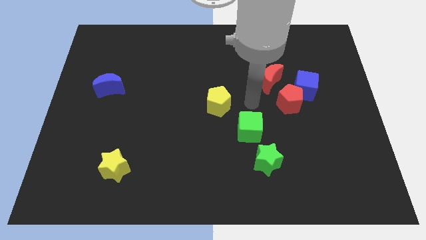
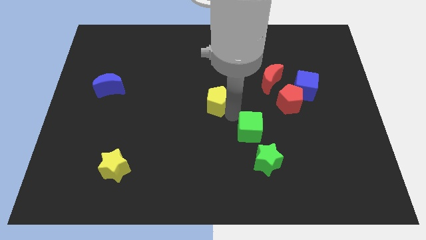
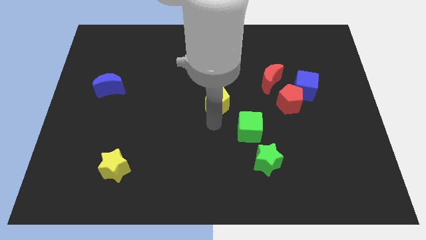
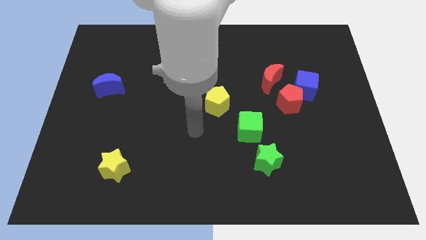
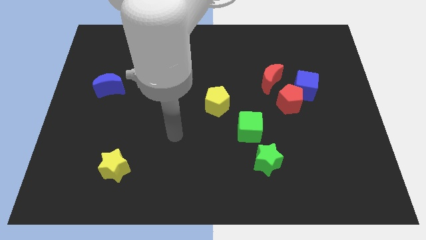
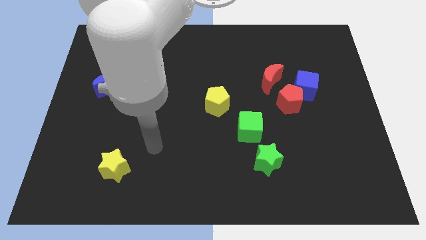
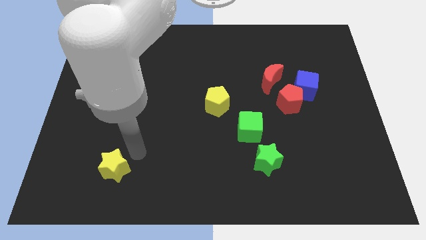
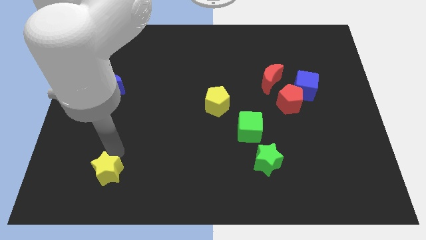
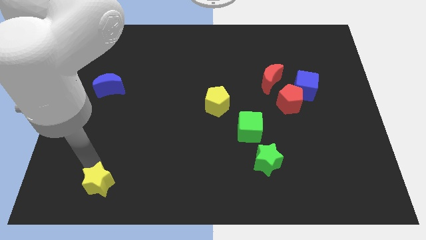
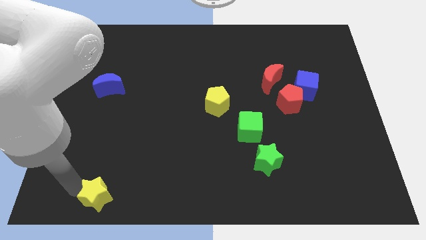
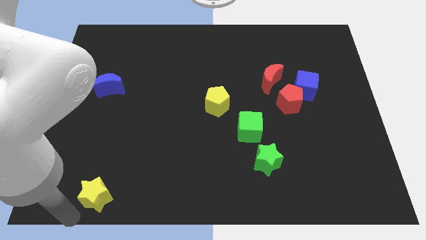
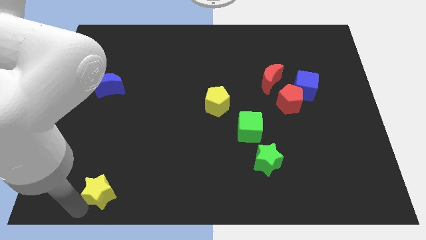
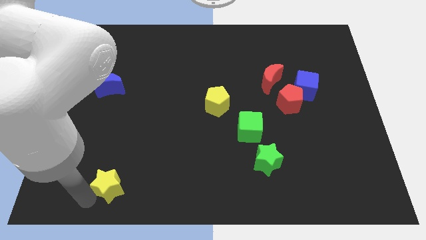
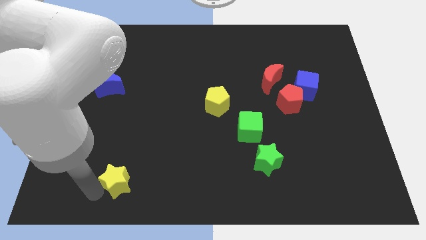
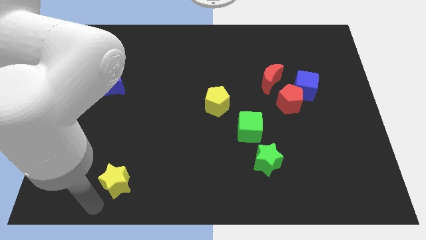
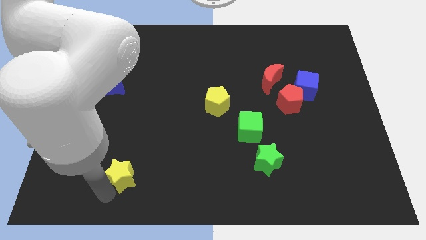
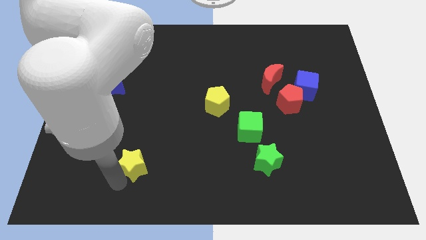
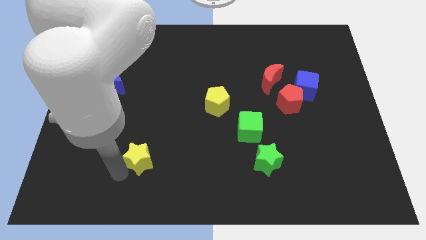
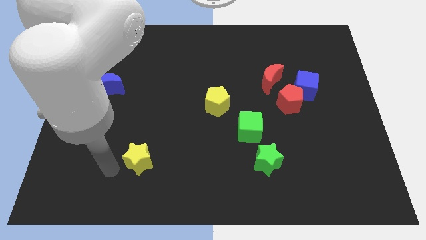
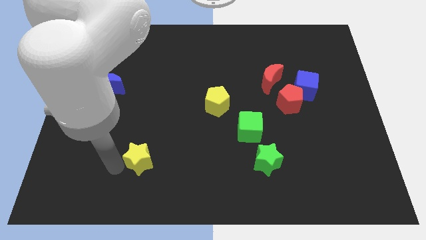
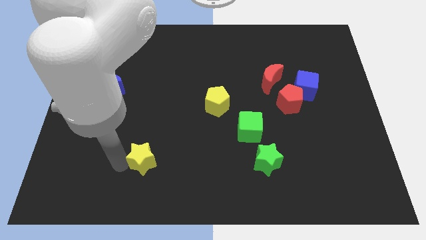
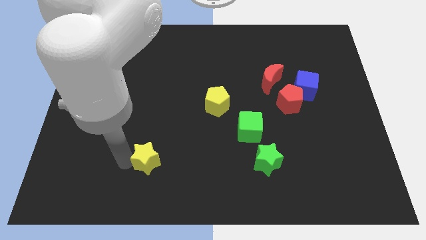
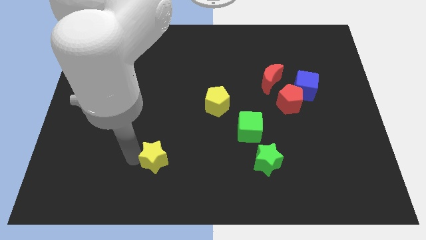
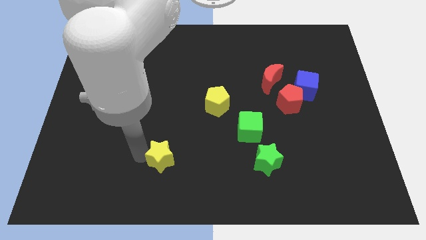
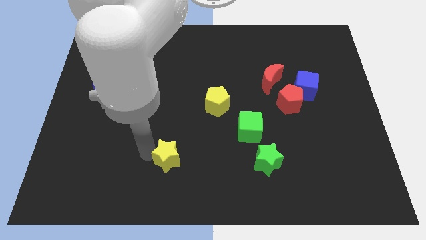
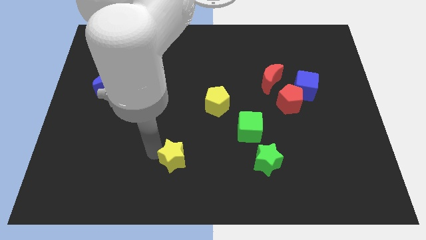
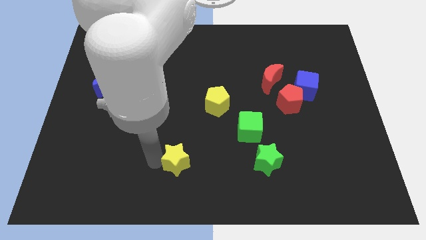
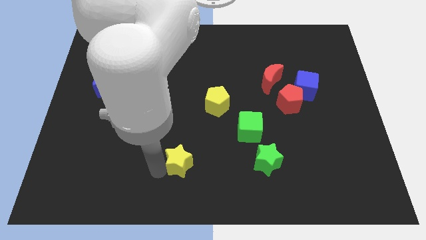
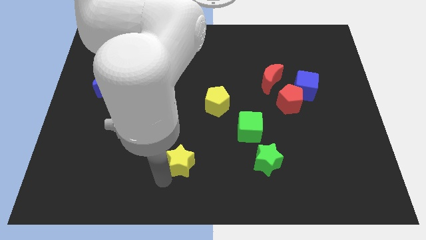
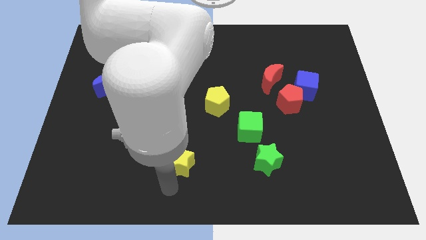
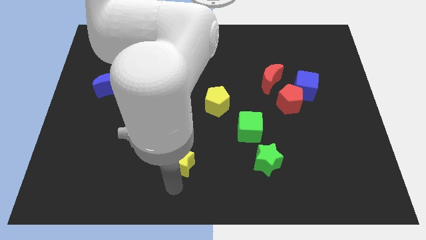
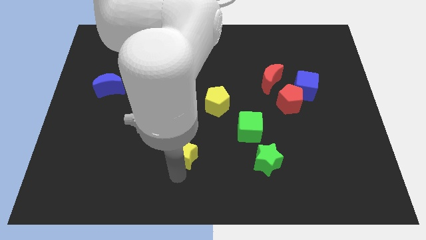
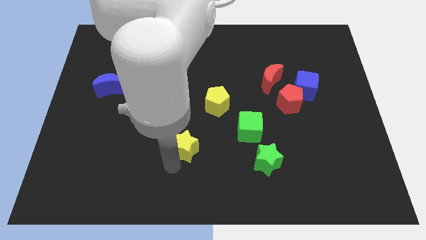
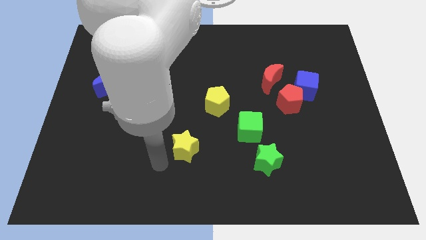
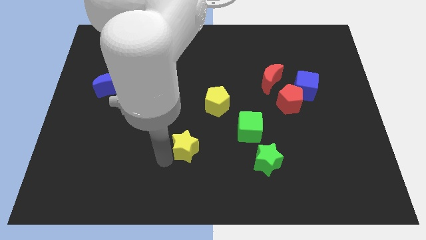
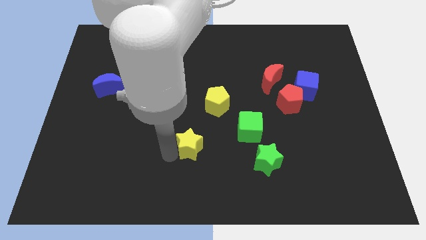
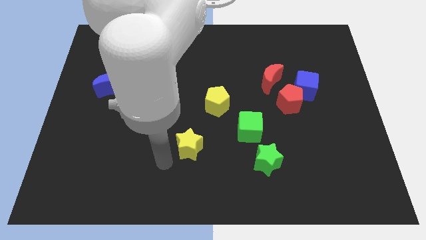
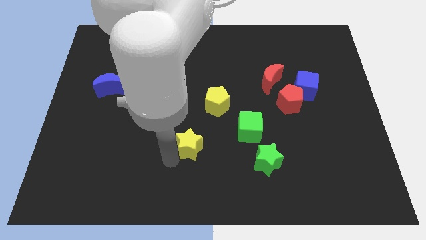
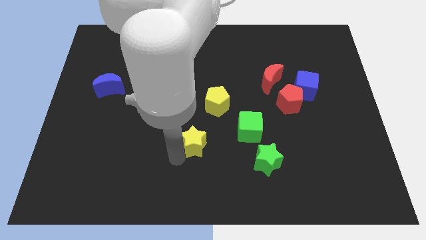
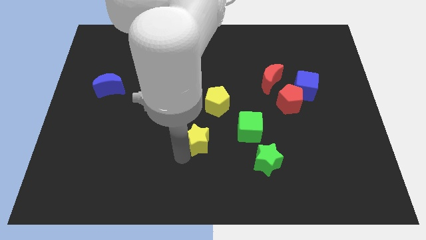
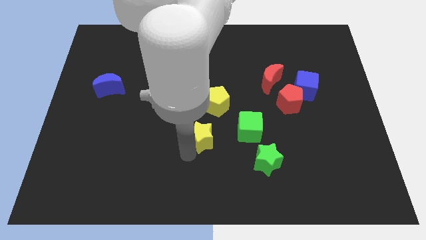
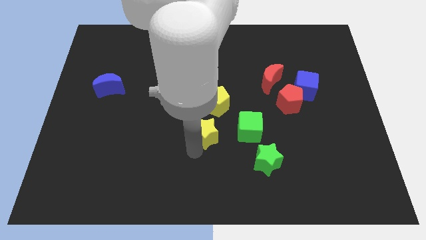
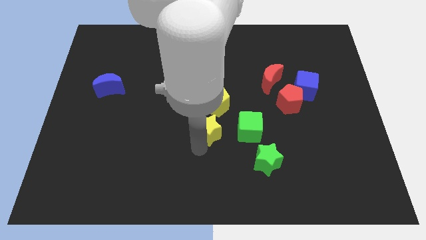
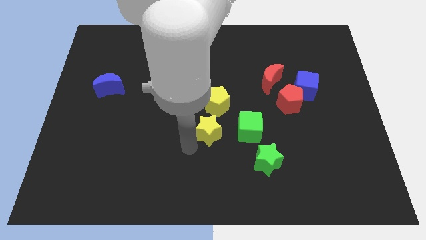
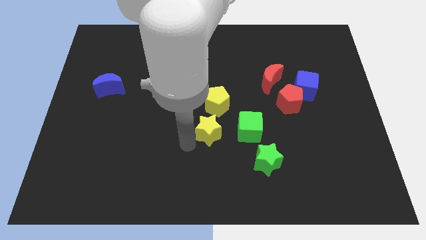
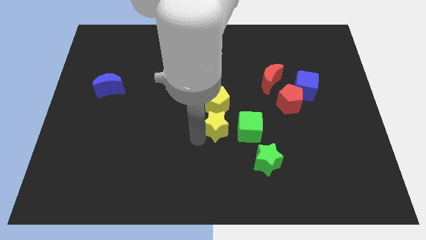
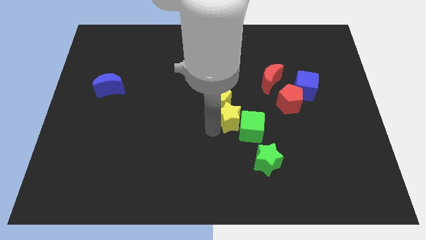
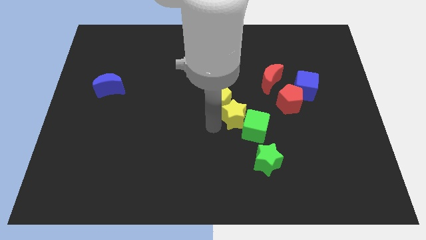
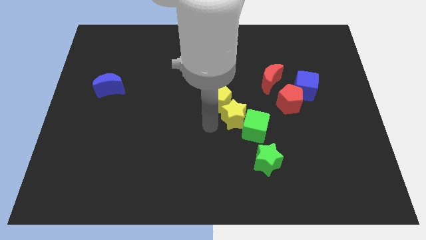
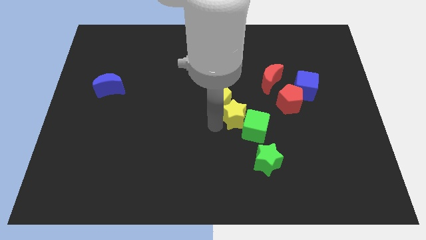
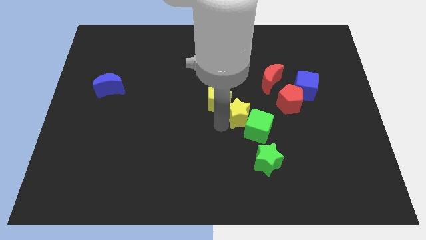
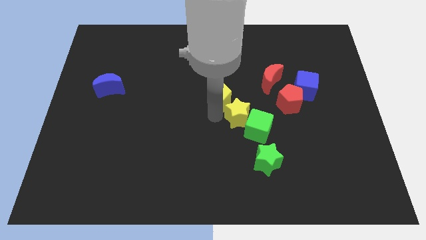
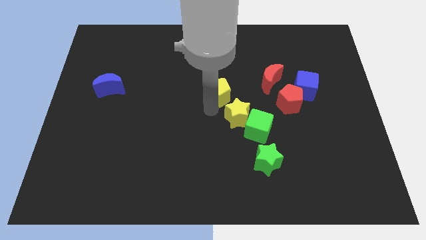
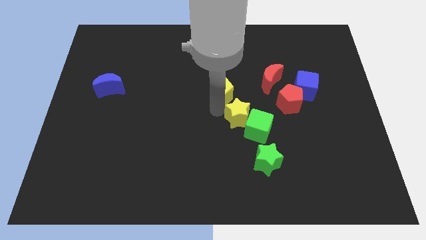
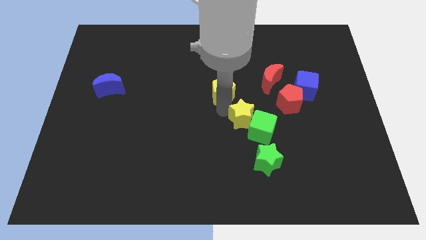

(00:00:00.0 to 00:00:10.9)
move the yellow star above the green star

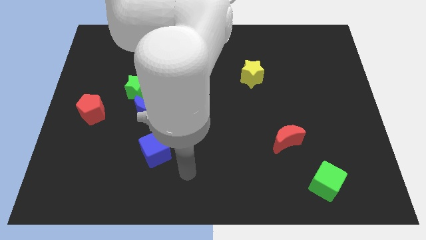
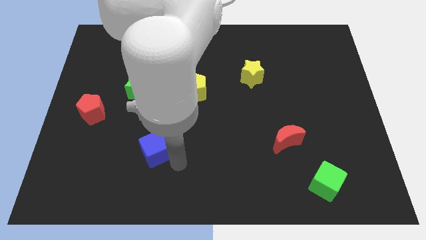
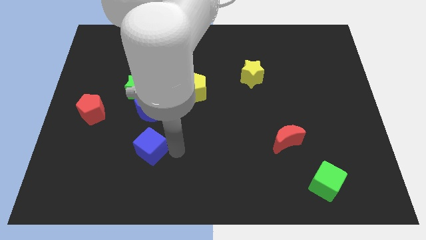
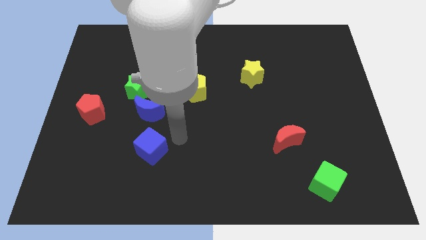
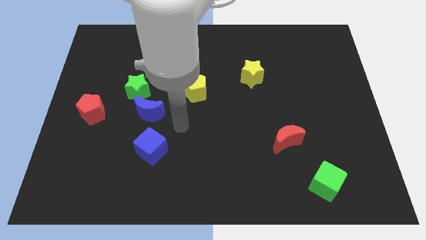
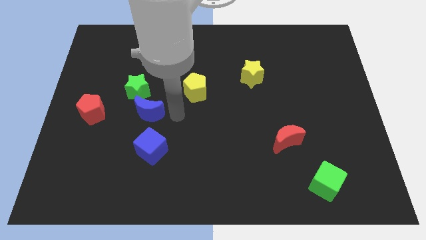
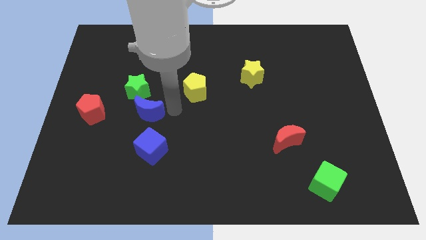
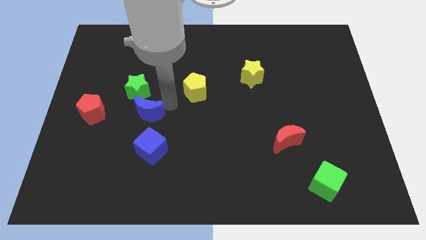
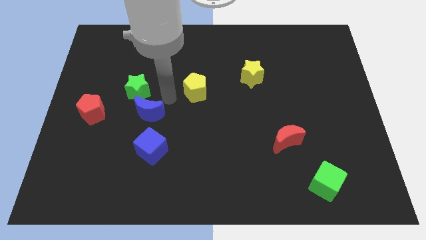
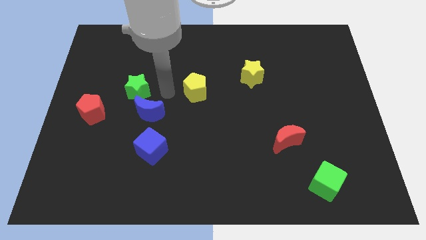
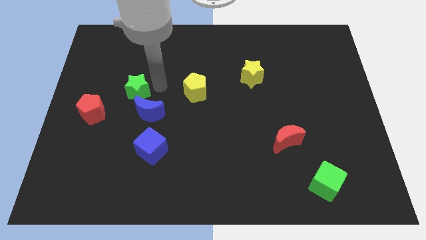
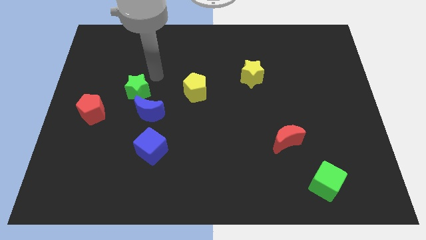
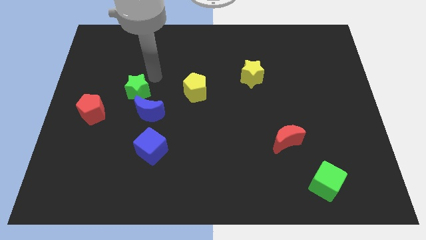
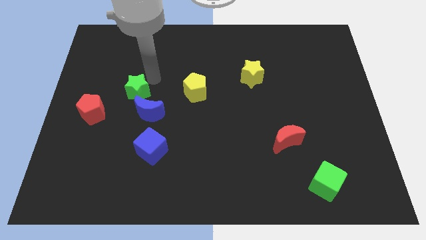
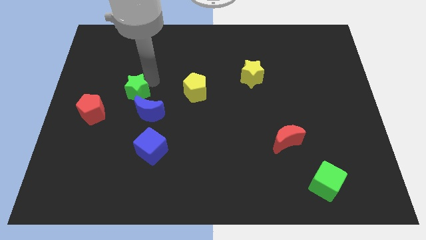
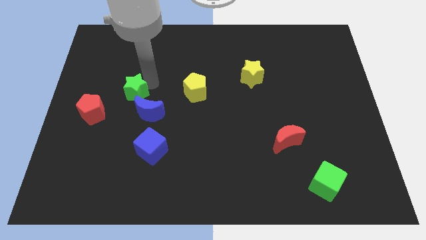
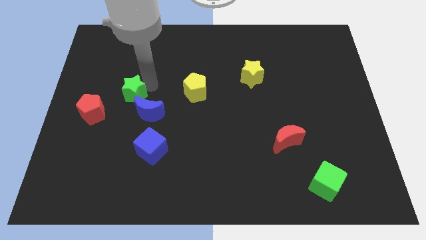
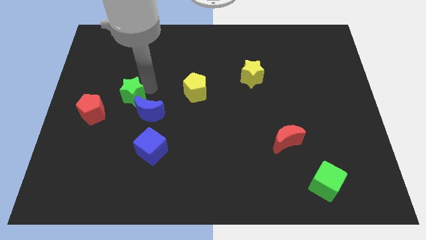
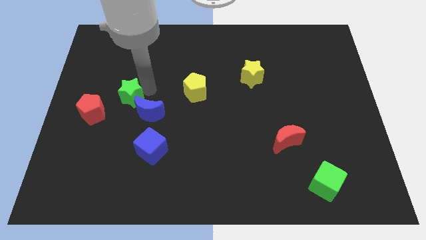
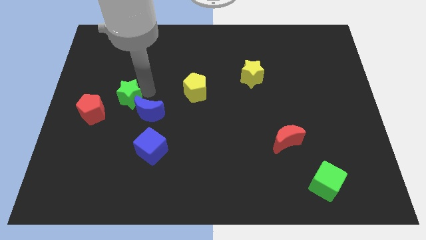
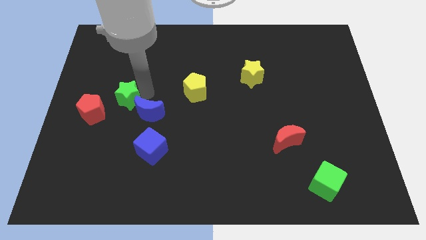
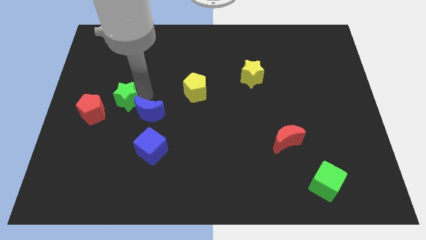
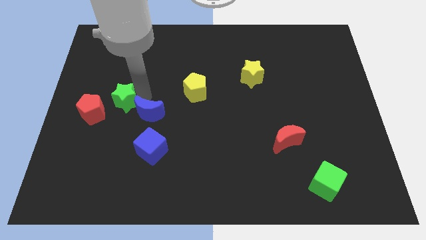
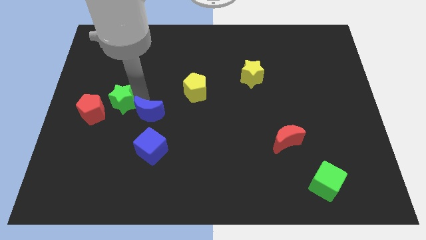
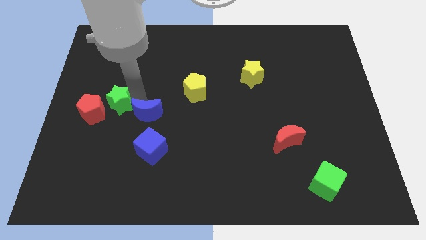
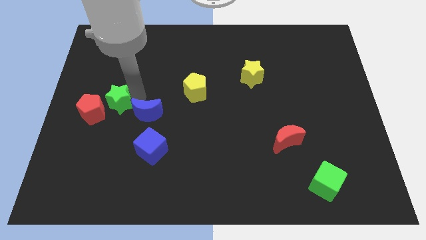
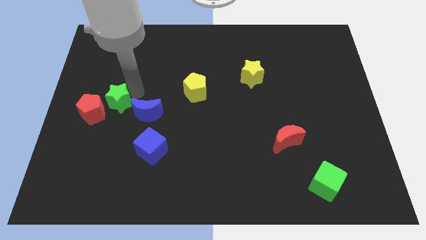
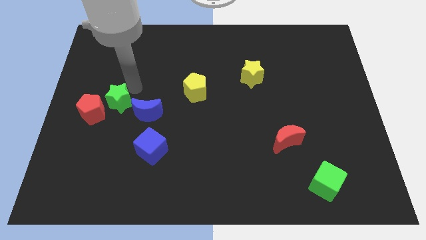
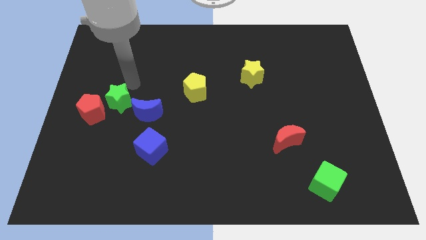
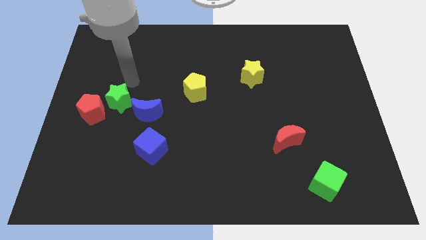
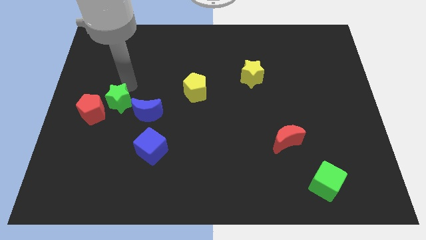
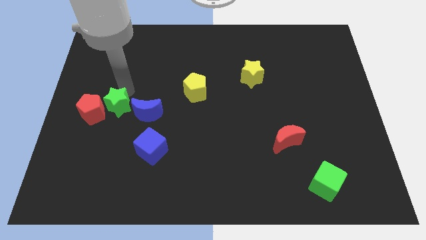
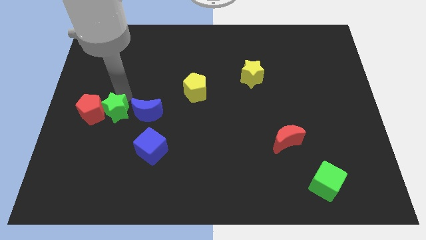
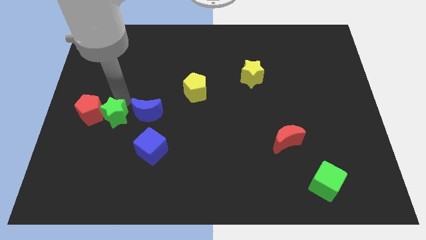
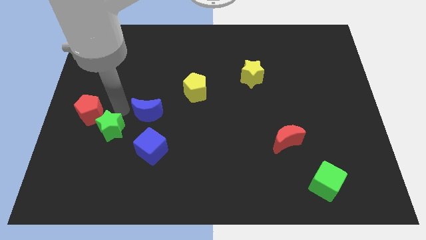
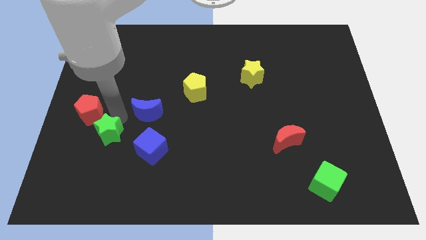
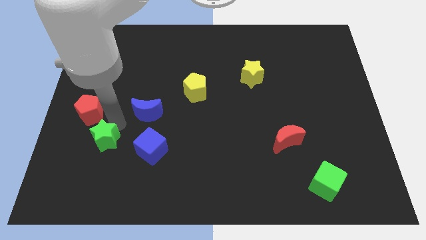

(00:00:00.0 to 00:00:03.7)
slide the green star to the bottom of the red pentagon
